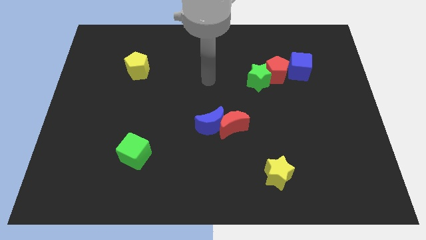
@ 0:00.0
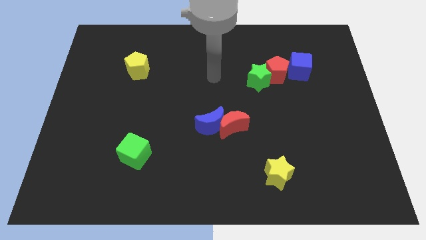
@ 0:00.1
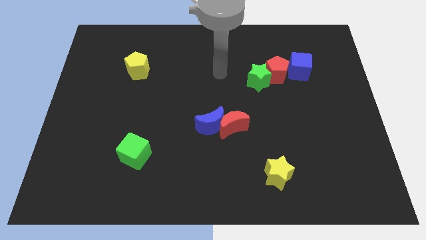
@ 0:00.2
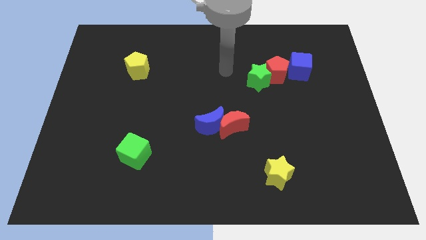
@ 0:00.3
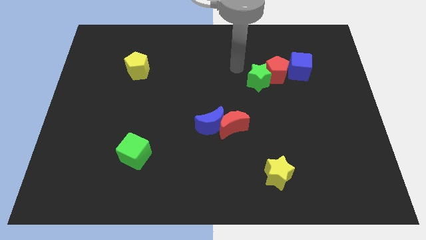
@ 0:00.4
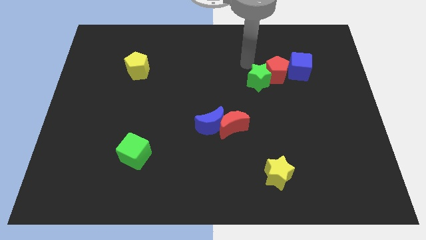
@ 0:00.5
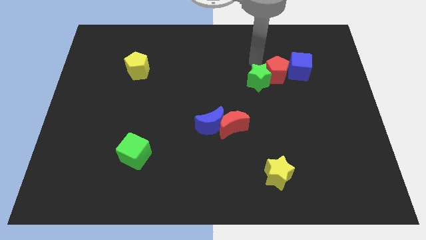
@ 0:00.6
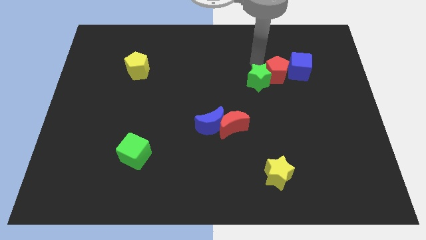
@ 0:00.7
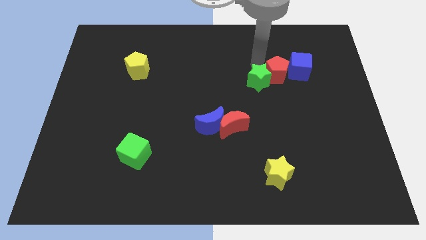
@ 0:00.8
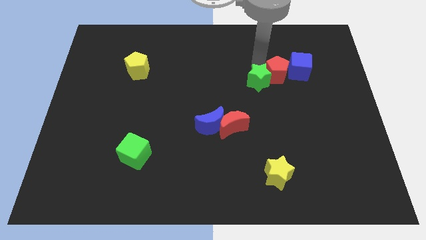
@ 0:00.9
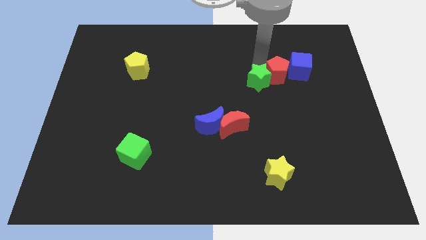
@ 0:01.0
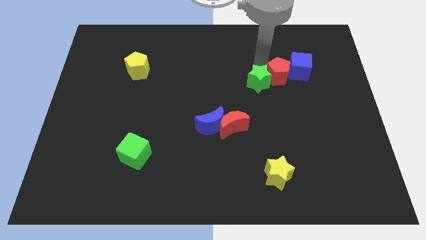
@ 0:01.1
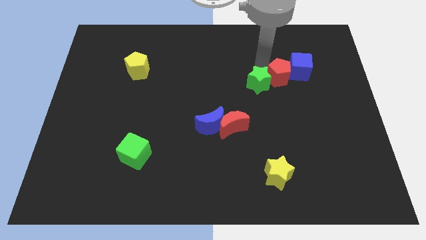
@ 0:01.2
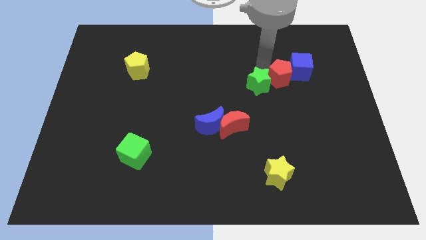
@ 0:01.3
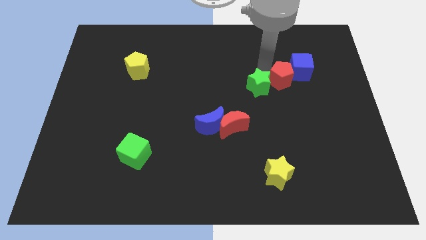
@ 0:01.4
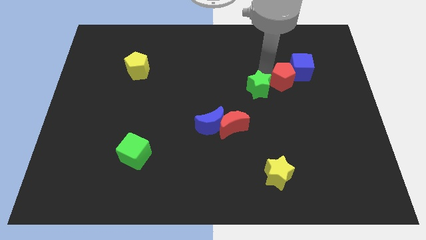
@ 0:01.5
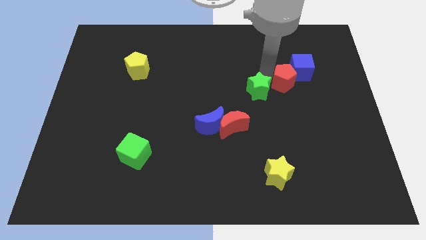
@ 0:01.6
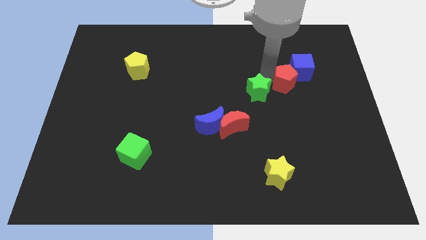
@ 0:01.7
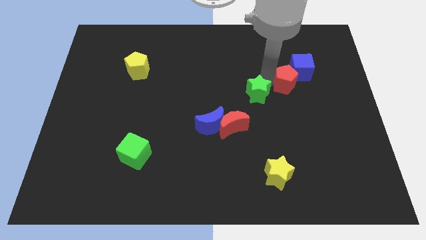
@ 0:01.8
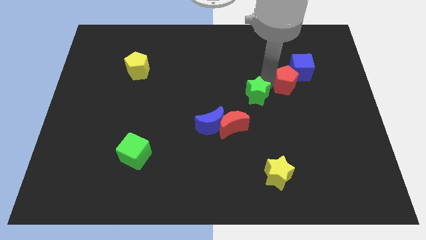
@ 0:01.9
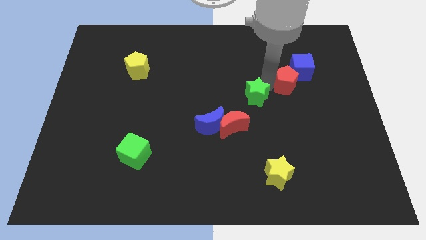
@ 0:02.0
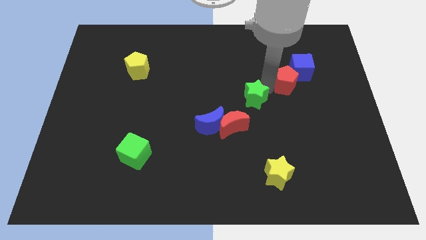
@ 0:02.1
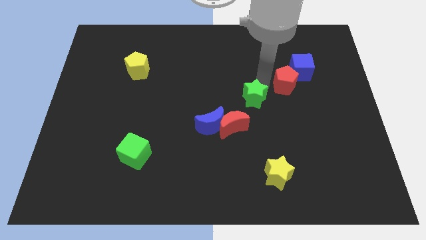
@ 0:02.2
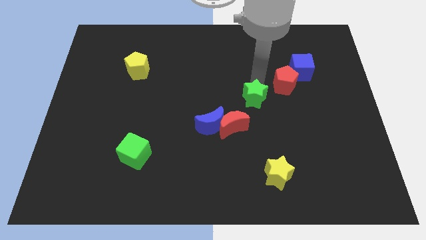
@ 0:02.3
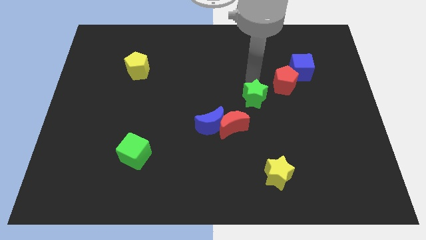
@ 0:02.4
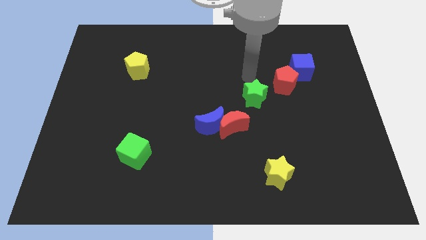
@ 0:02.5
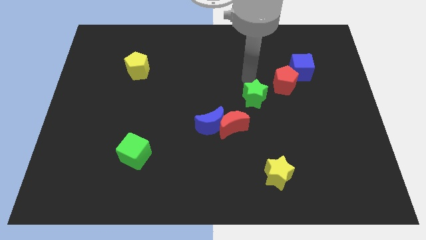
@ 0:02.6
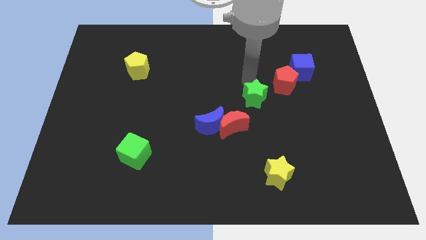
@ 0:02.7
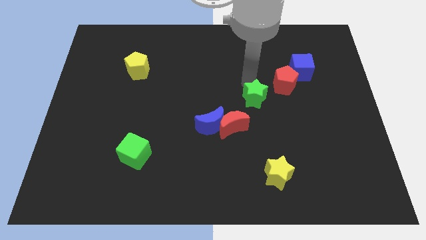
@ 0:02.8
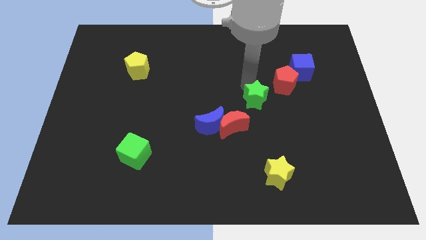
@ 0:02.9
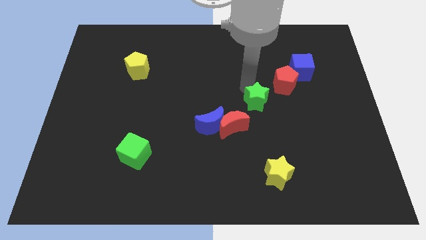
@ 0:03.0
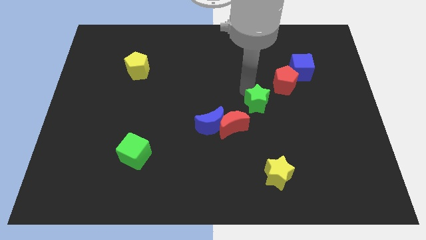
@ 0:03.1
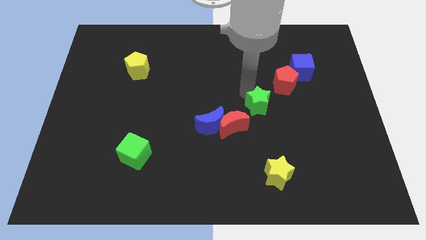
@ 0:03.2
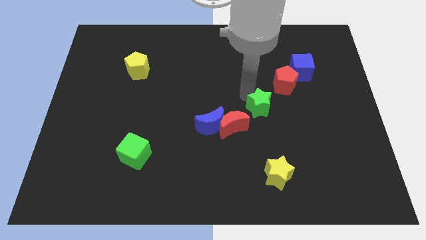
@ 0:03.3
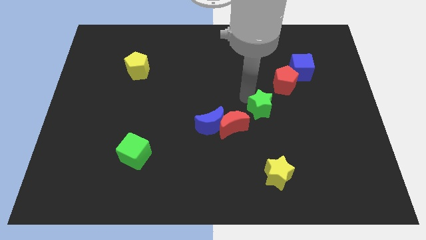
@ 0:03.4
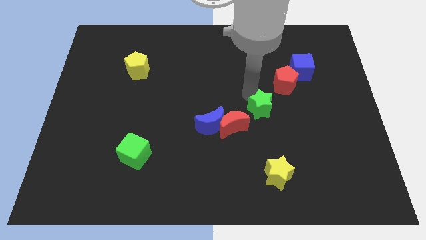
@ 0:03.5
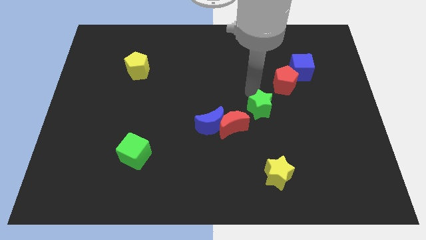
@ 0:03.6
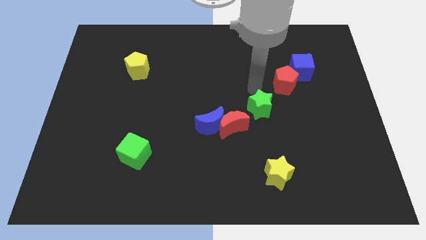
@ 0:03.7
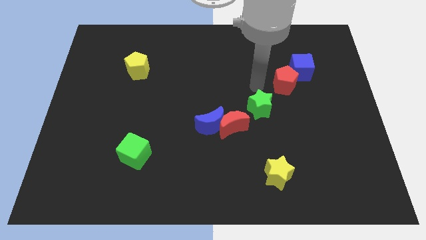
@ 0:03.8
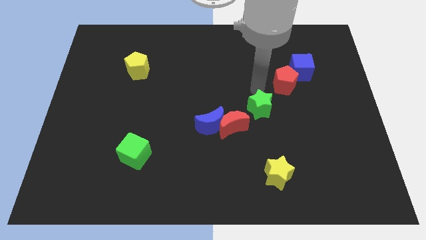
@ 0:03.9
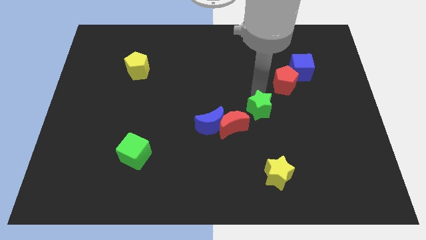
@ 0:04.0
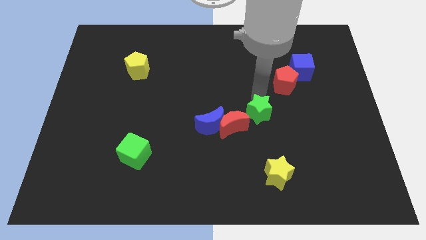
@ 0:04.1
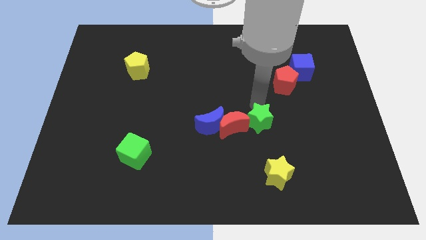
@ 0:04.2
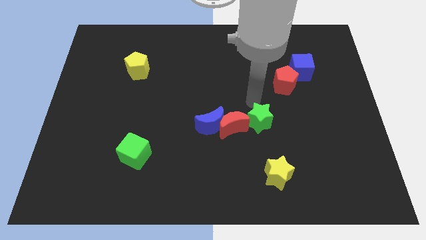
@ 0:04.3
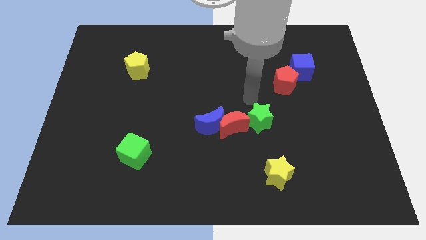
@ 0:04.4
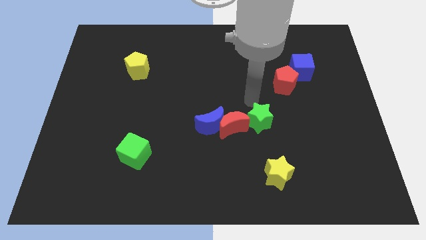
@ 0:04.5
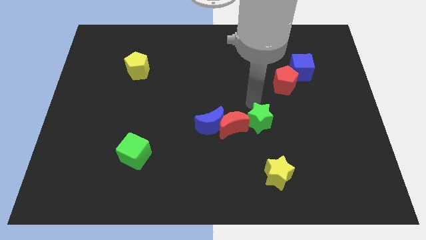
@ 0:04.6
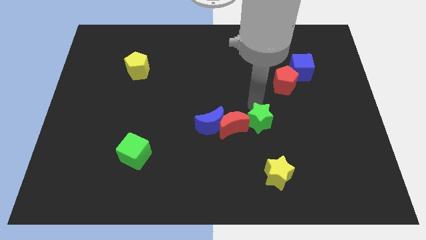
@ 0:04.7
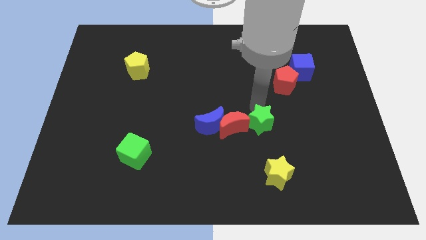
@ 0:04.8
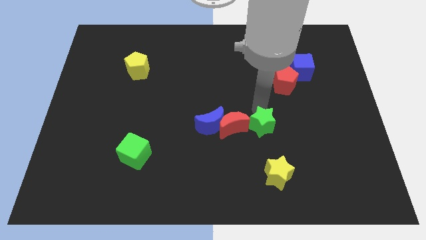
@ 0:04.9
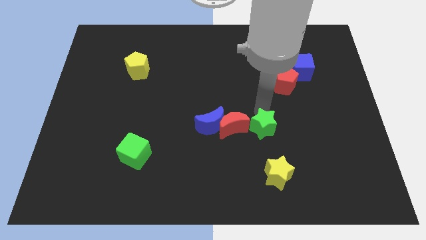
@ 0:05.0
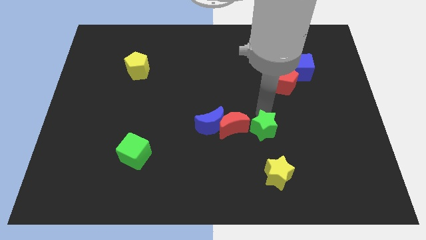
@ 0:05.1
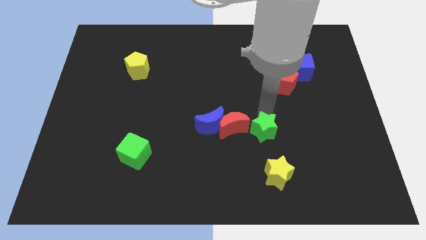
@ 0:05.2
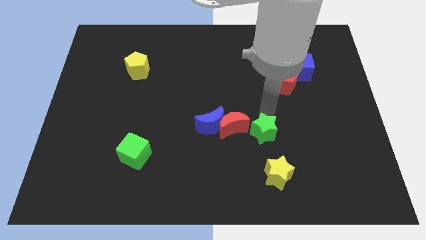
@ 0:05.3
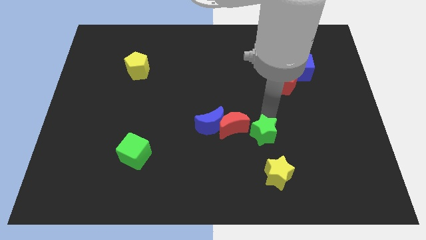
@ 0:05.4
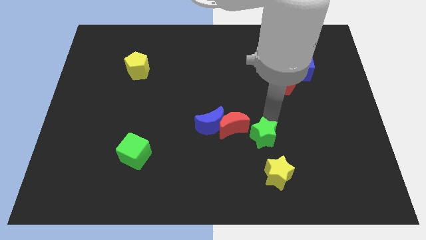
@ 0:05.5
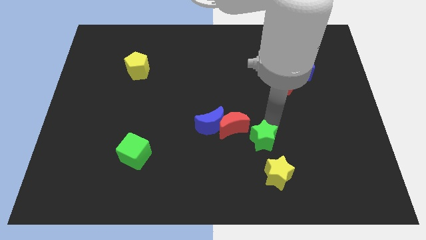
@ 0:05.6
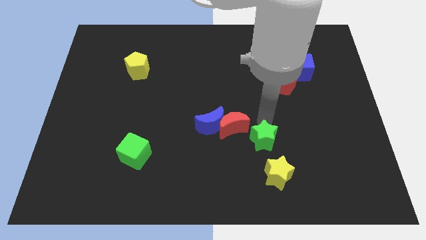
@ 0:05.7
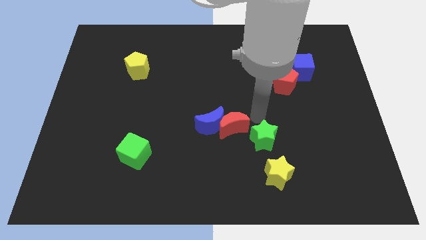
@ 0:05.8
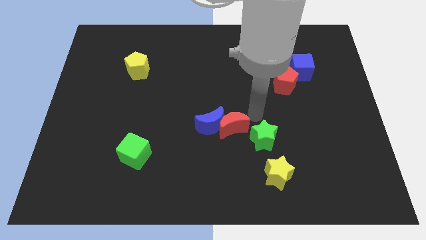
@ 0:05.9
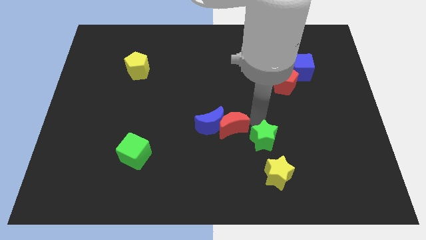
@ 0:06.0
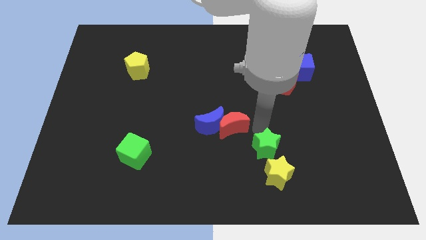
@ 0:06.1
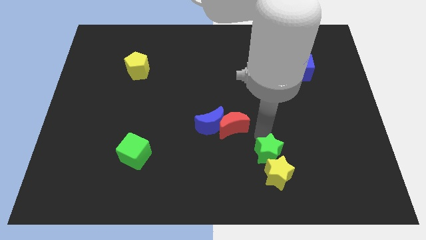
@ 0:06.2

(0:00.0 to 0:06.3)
put the green star close to the yellow star

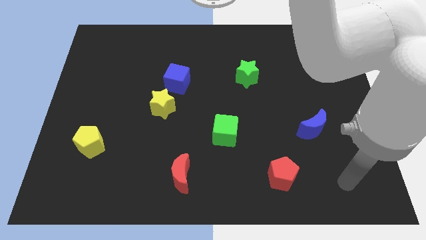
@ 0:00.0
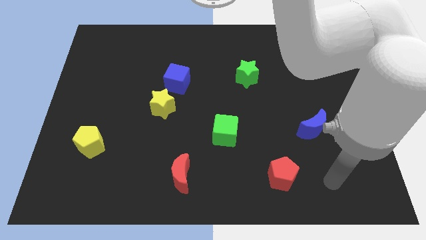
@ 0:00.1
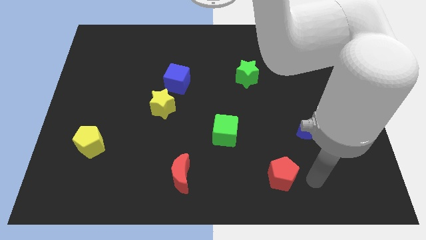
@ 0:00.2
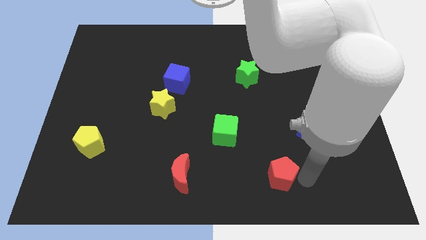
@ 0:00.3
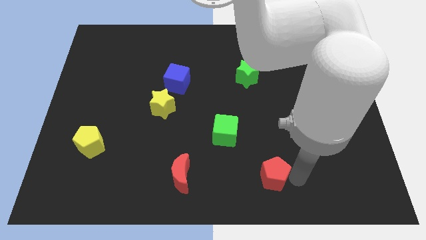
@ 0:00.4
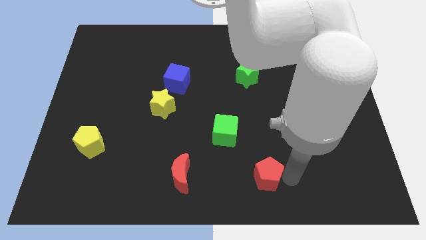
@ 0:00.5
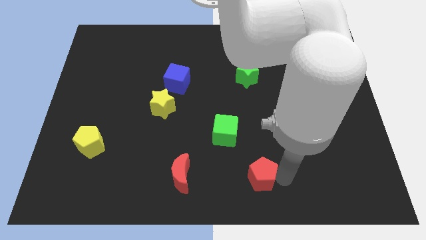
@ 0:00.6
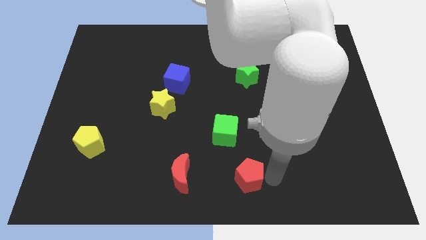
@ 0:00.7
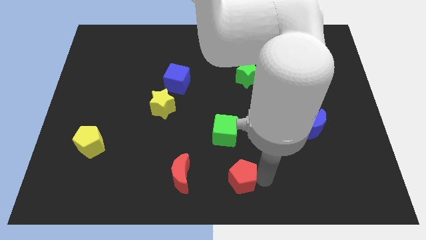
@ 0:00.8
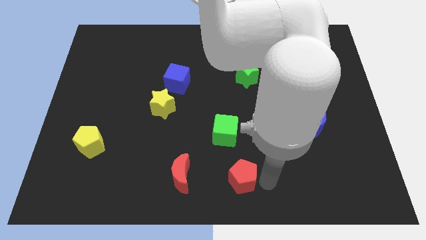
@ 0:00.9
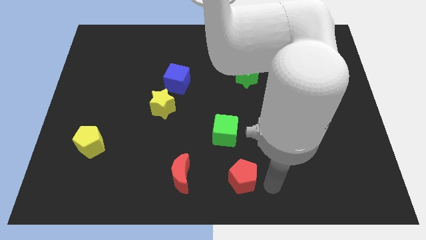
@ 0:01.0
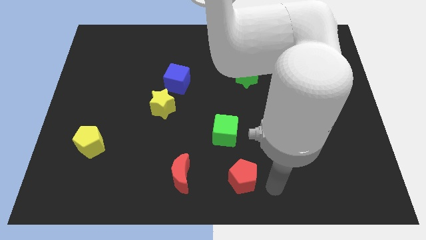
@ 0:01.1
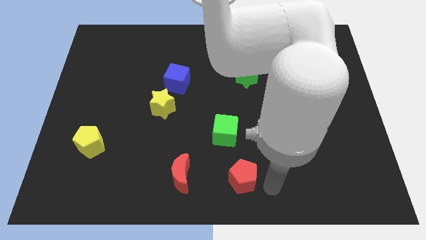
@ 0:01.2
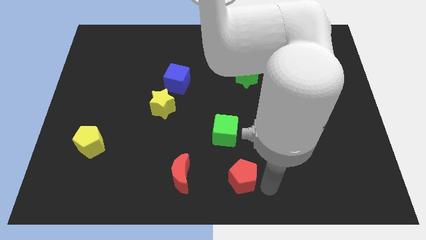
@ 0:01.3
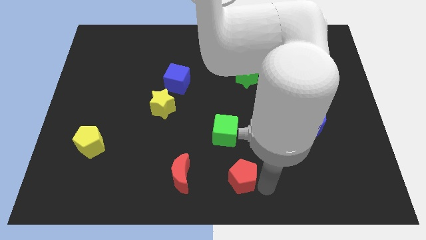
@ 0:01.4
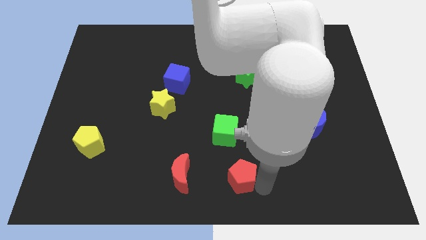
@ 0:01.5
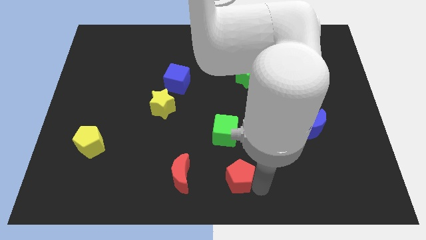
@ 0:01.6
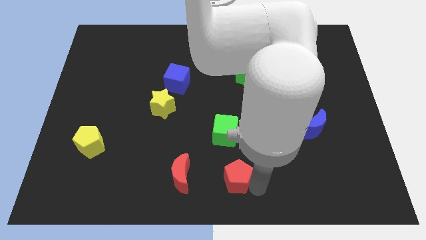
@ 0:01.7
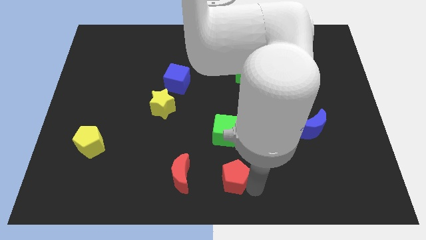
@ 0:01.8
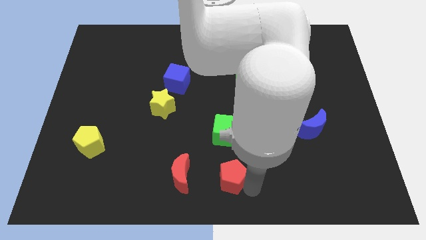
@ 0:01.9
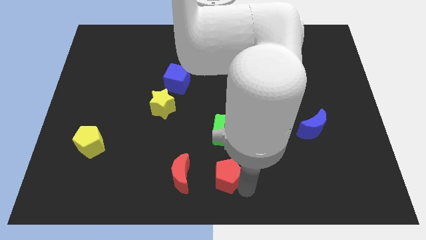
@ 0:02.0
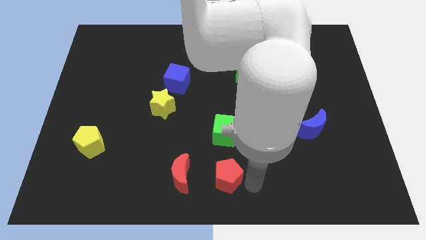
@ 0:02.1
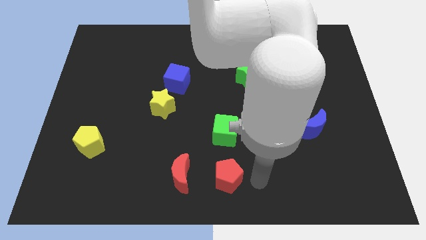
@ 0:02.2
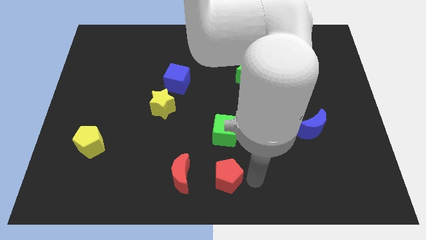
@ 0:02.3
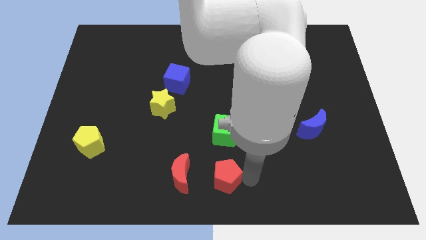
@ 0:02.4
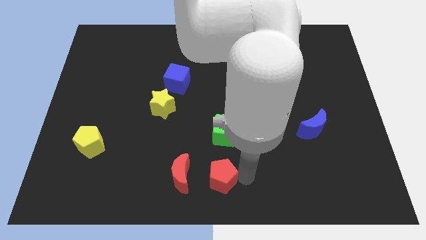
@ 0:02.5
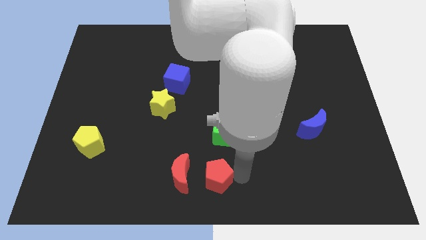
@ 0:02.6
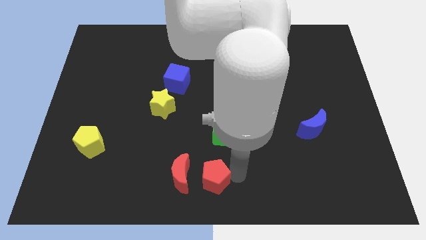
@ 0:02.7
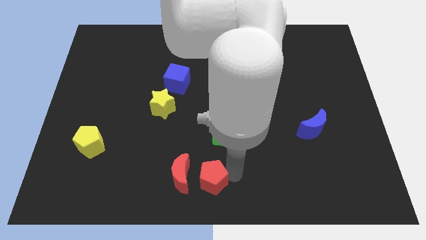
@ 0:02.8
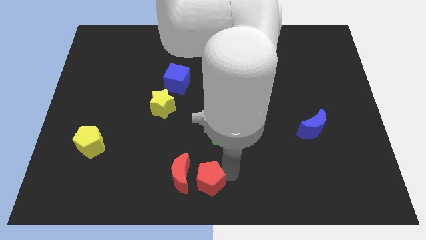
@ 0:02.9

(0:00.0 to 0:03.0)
push the red pentagon close to the red moon
